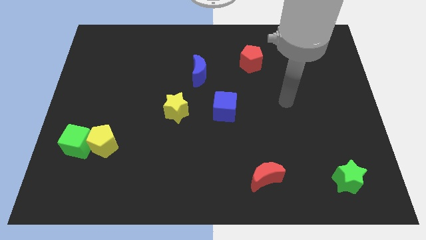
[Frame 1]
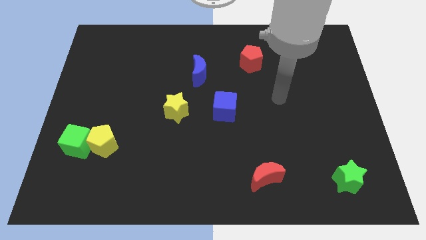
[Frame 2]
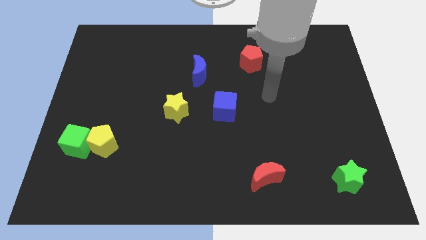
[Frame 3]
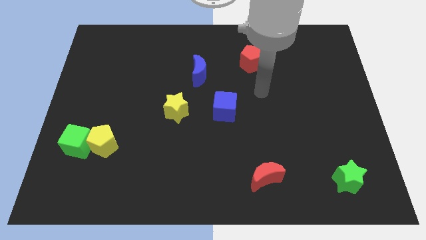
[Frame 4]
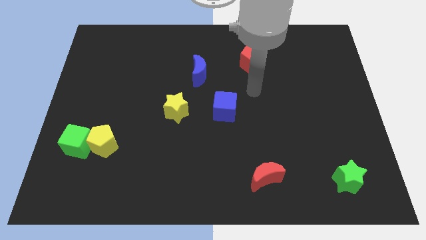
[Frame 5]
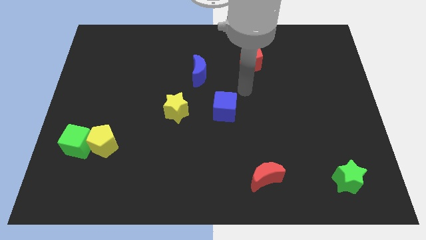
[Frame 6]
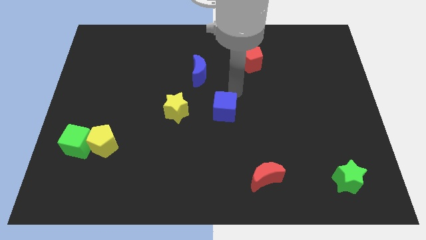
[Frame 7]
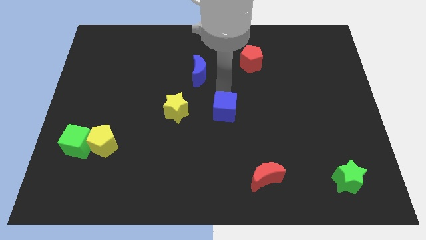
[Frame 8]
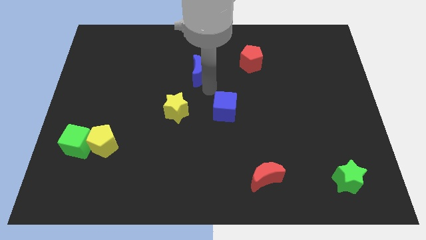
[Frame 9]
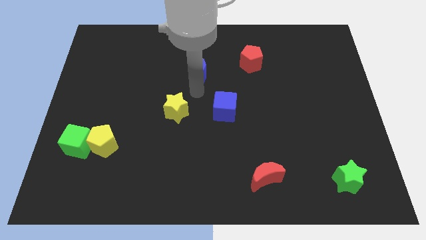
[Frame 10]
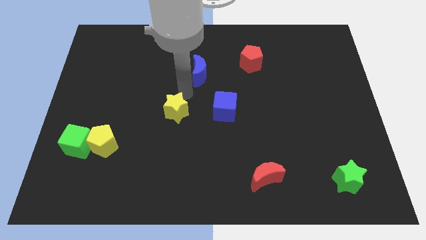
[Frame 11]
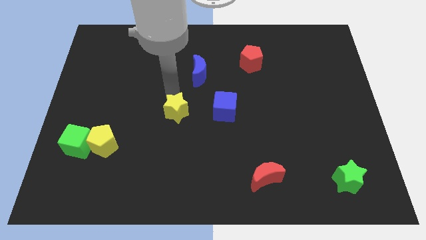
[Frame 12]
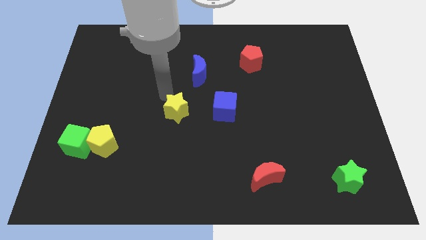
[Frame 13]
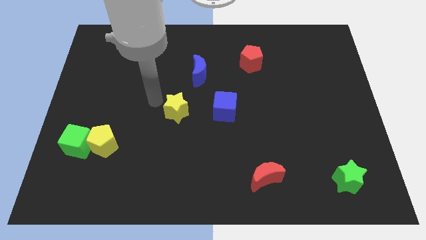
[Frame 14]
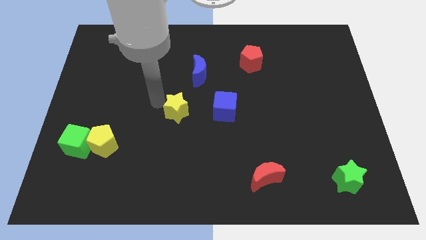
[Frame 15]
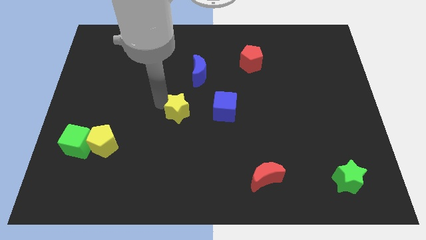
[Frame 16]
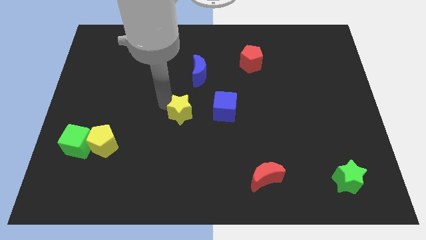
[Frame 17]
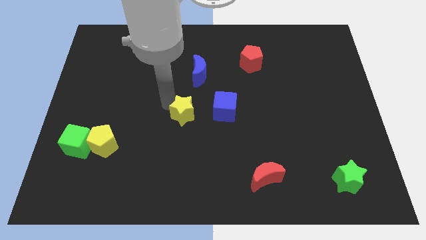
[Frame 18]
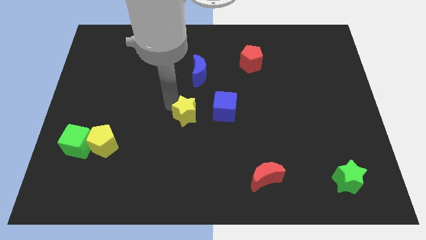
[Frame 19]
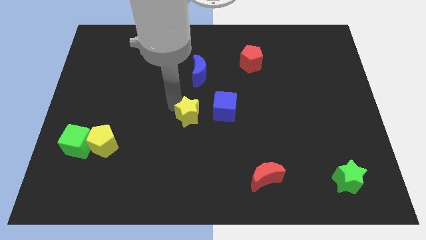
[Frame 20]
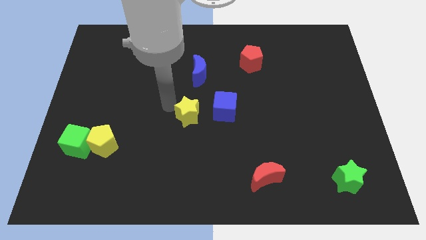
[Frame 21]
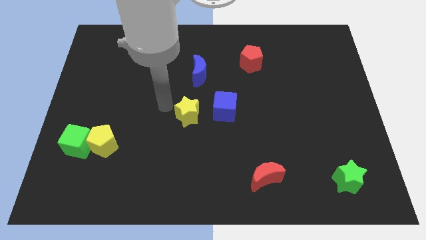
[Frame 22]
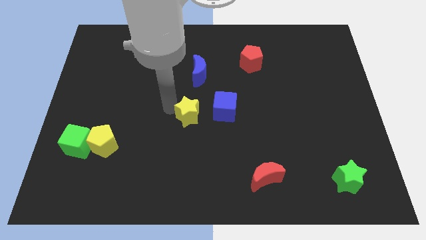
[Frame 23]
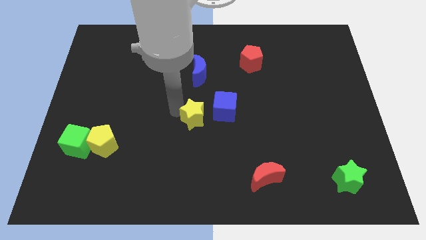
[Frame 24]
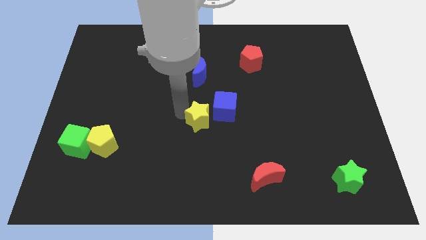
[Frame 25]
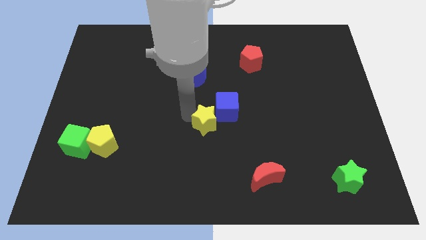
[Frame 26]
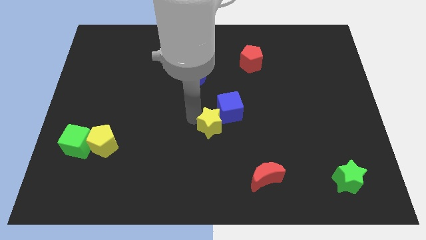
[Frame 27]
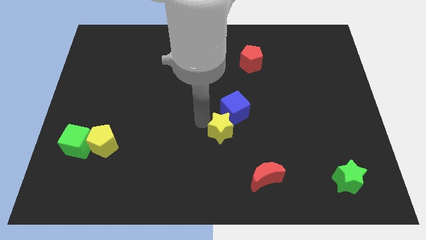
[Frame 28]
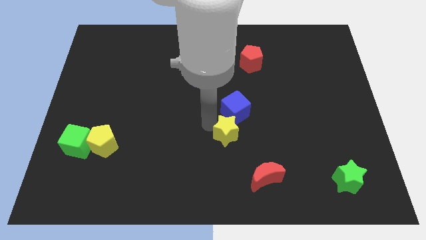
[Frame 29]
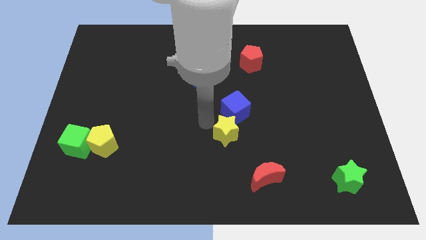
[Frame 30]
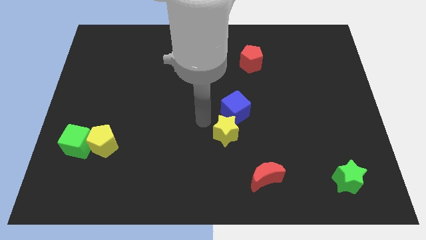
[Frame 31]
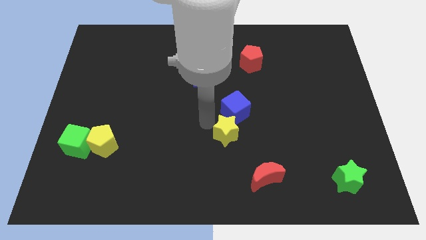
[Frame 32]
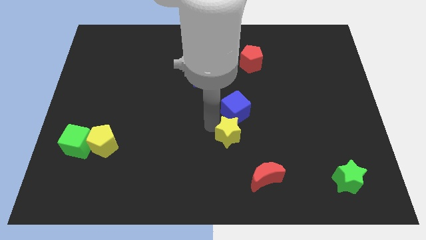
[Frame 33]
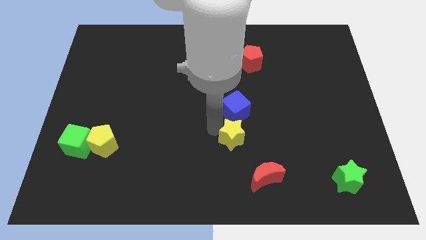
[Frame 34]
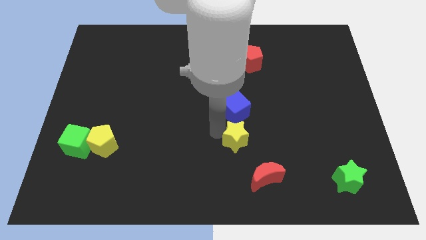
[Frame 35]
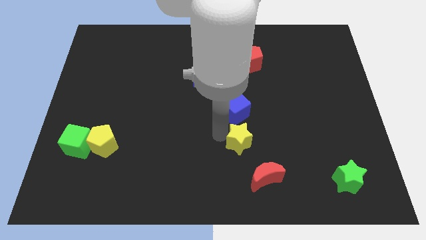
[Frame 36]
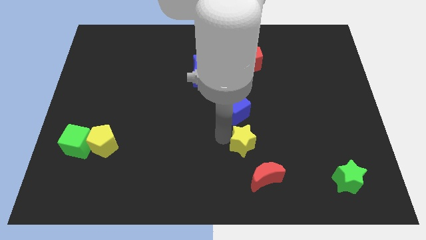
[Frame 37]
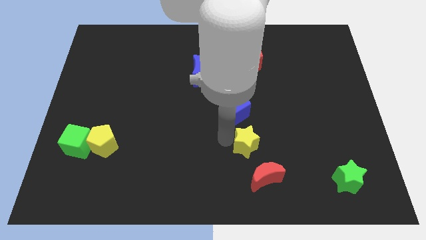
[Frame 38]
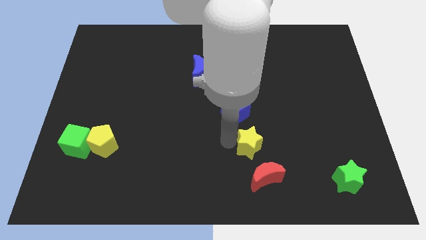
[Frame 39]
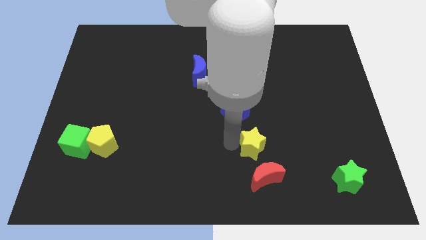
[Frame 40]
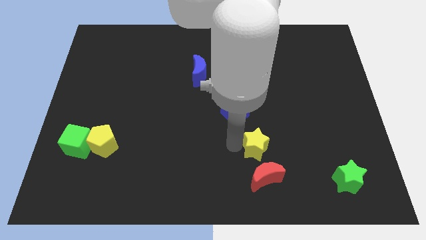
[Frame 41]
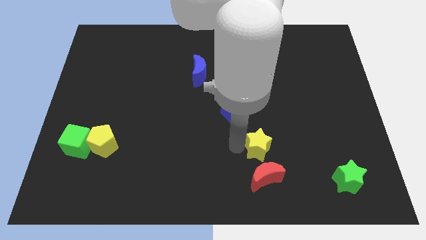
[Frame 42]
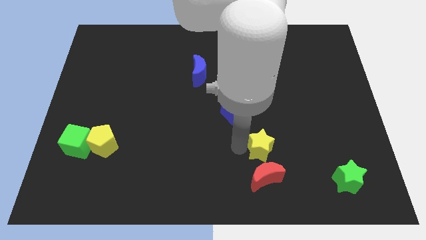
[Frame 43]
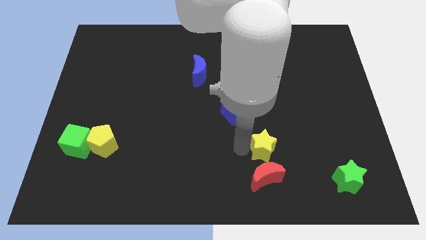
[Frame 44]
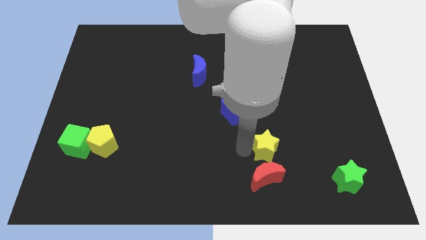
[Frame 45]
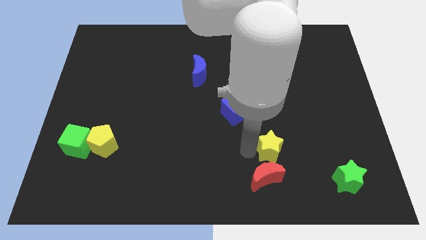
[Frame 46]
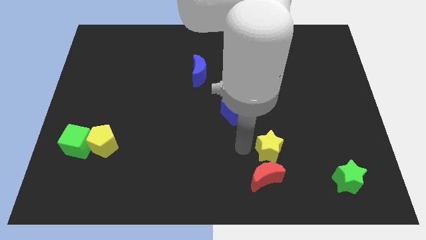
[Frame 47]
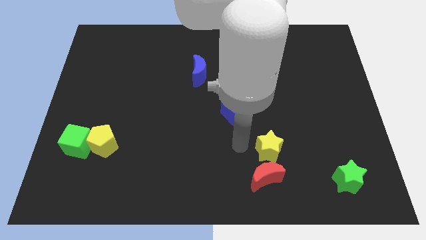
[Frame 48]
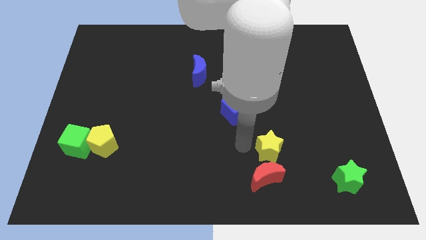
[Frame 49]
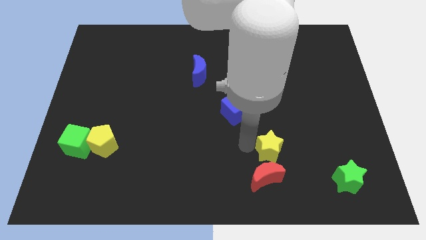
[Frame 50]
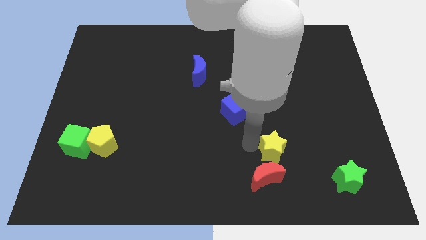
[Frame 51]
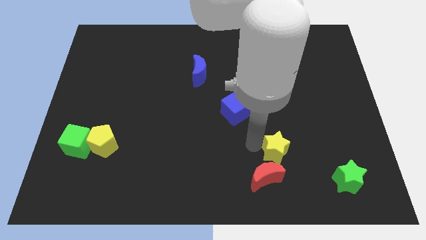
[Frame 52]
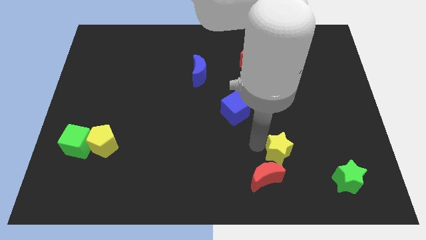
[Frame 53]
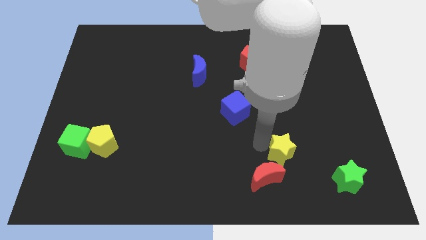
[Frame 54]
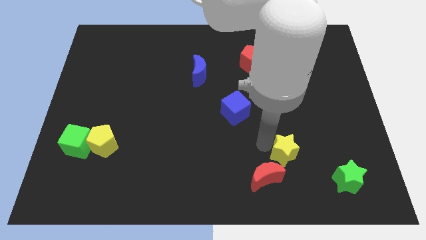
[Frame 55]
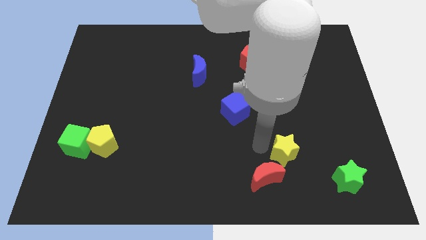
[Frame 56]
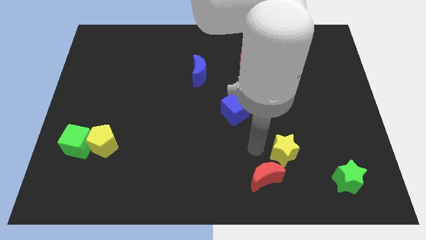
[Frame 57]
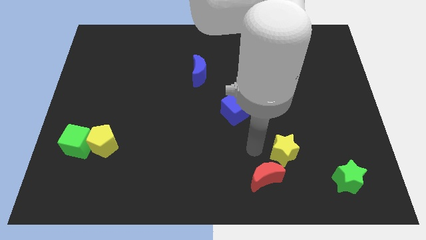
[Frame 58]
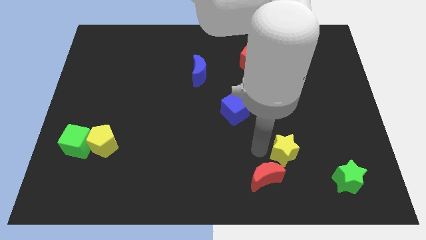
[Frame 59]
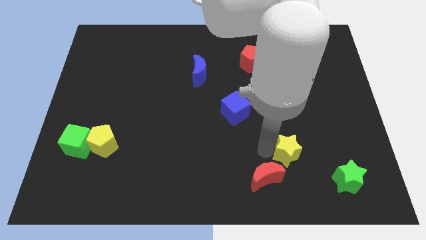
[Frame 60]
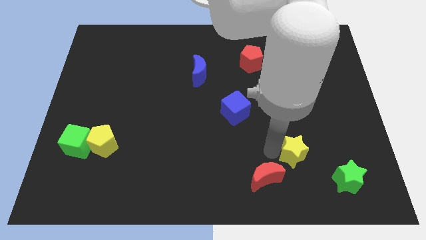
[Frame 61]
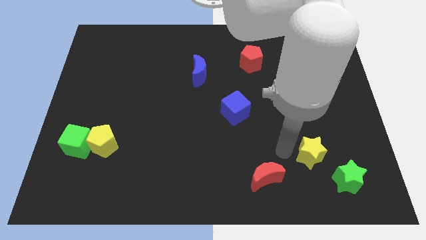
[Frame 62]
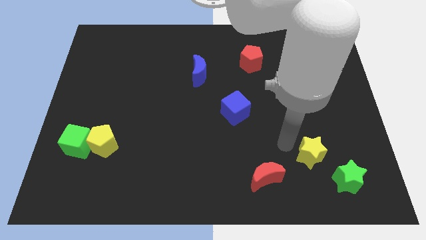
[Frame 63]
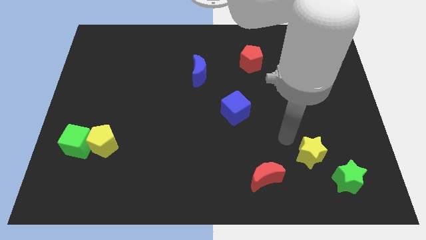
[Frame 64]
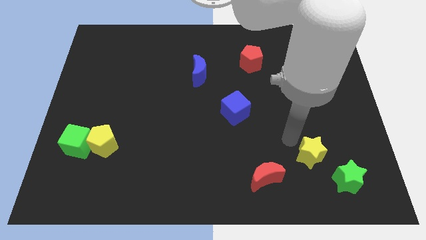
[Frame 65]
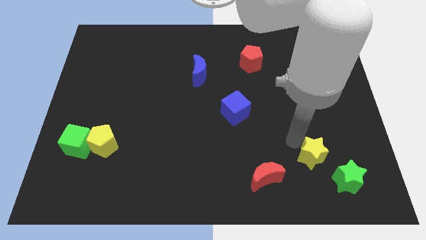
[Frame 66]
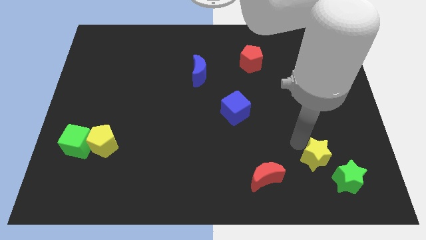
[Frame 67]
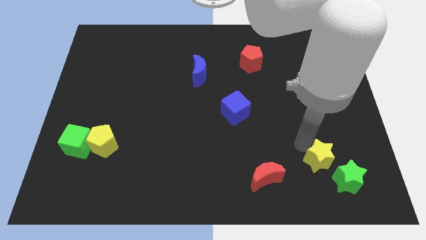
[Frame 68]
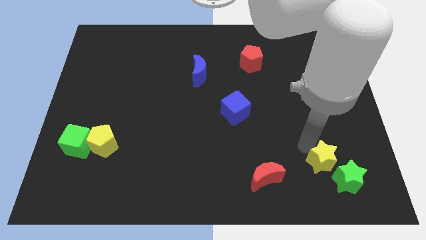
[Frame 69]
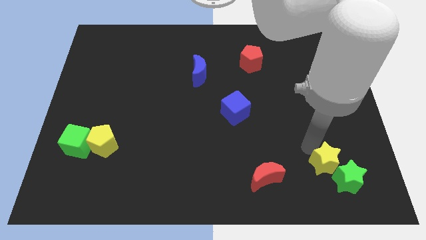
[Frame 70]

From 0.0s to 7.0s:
put the yellow star to the green star

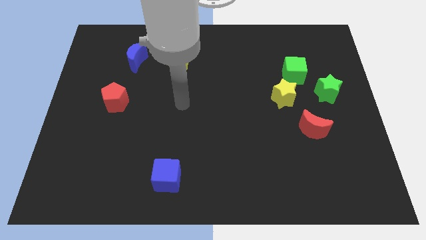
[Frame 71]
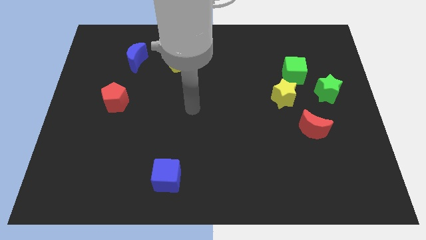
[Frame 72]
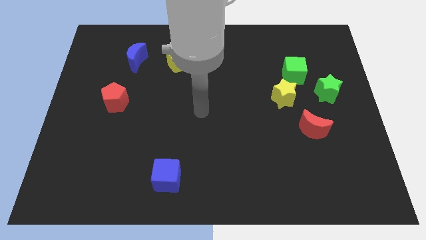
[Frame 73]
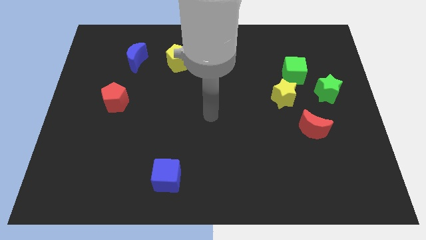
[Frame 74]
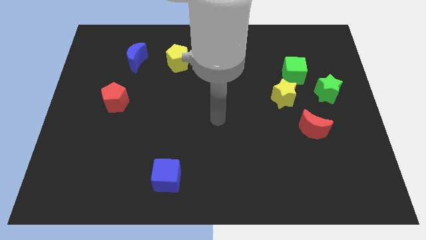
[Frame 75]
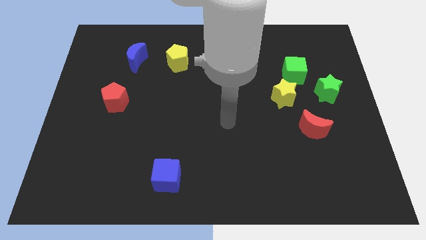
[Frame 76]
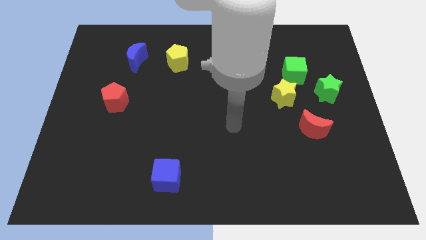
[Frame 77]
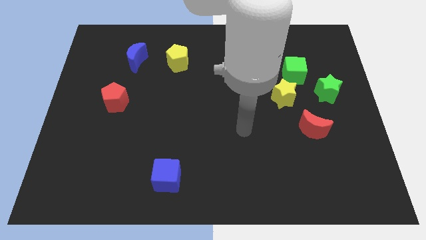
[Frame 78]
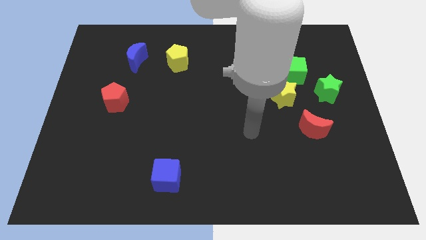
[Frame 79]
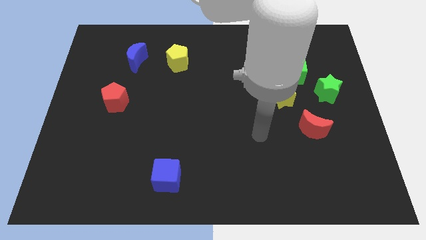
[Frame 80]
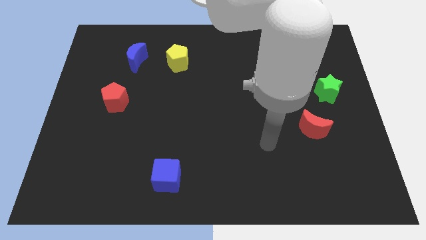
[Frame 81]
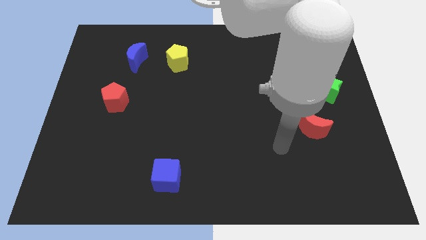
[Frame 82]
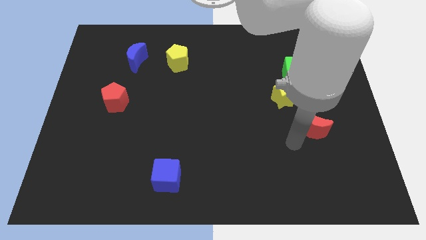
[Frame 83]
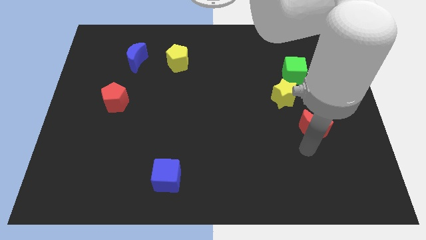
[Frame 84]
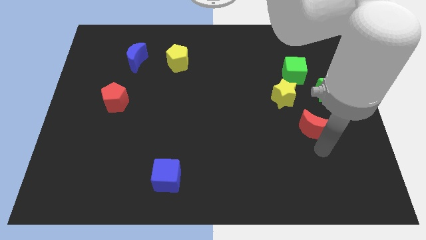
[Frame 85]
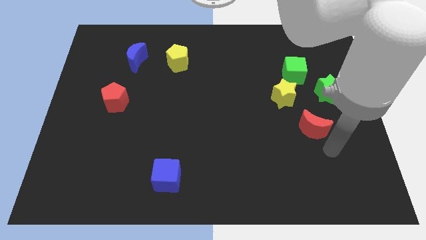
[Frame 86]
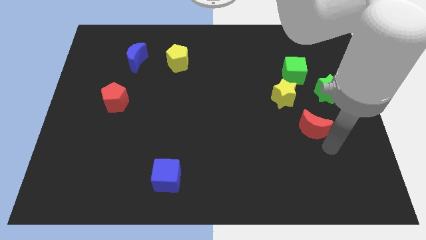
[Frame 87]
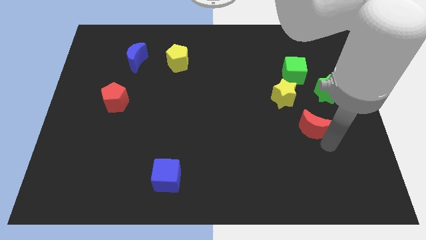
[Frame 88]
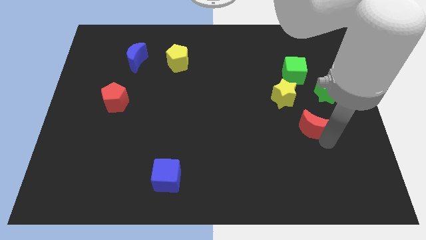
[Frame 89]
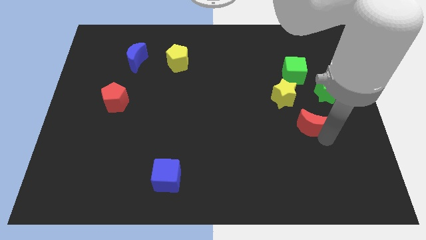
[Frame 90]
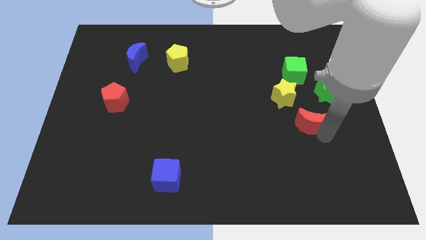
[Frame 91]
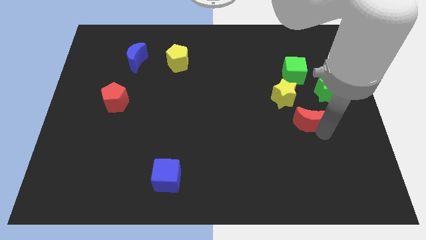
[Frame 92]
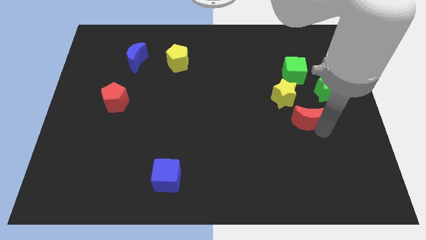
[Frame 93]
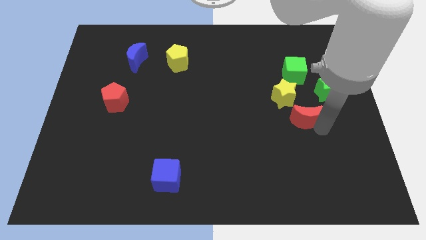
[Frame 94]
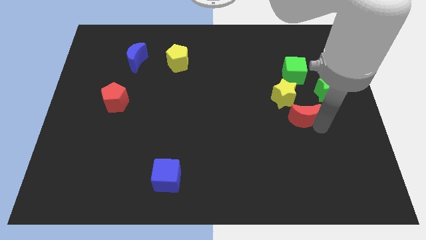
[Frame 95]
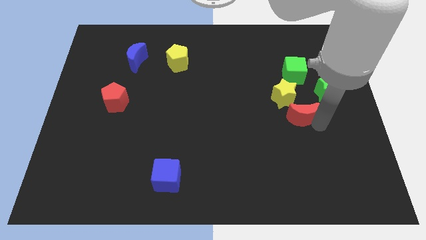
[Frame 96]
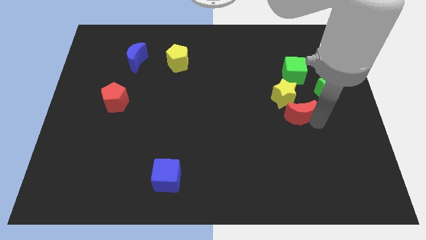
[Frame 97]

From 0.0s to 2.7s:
push the red moon to the yellow star
